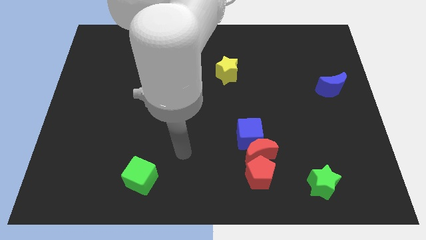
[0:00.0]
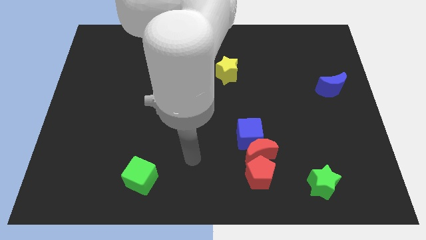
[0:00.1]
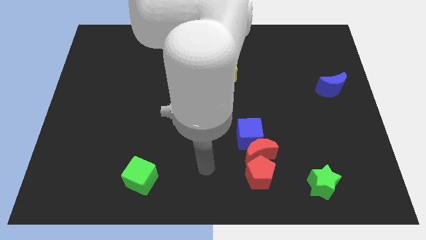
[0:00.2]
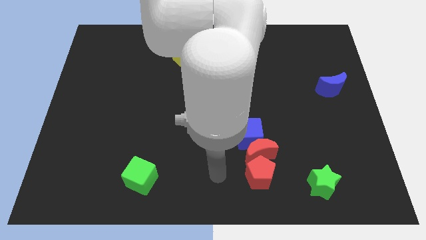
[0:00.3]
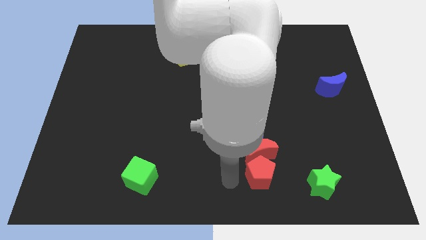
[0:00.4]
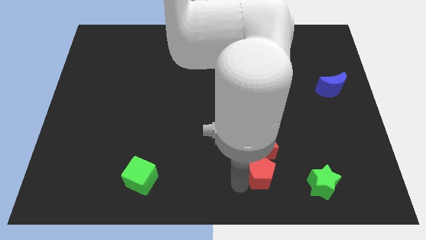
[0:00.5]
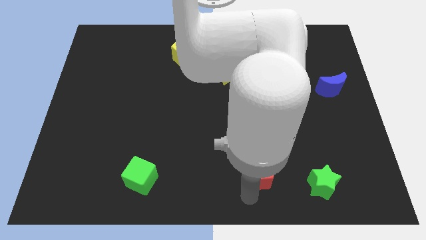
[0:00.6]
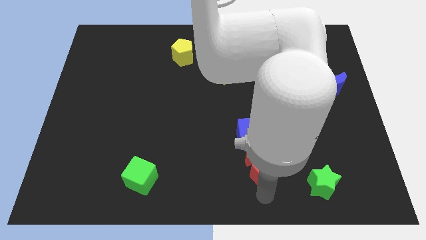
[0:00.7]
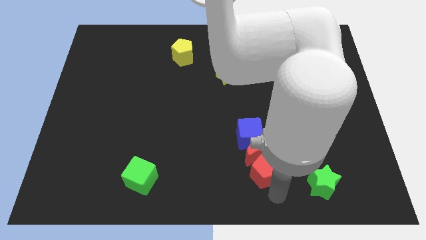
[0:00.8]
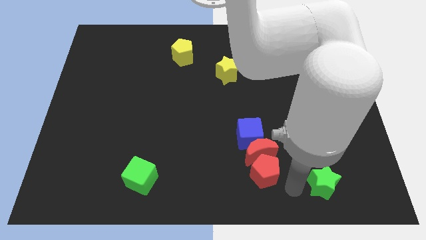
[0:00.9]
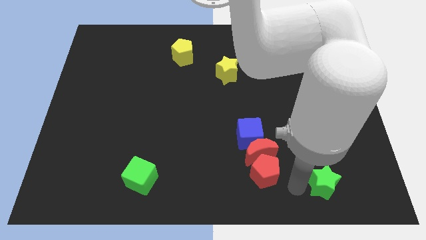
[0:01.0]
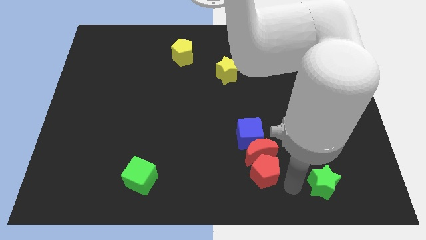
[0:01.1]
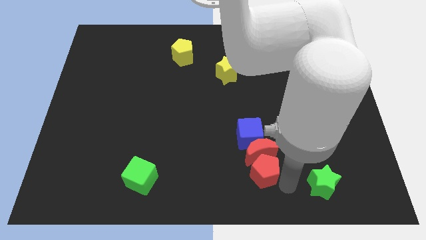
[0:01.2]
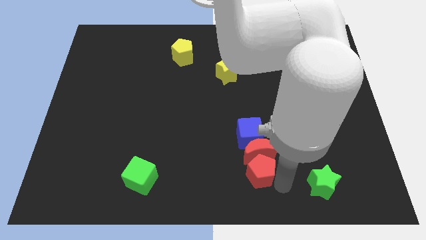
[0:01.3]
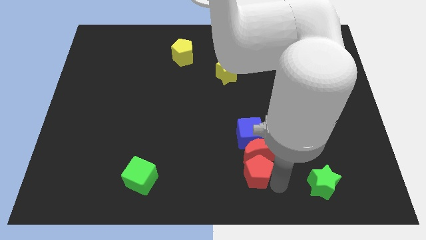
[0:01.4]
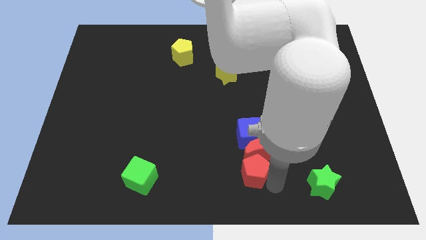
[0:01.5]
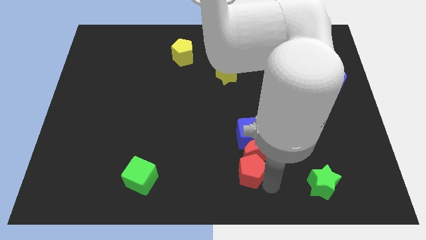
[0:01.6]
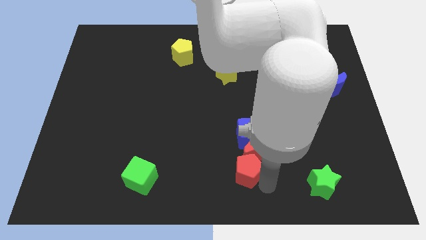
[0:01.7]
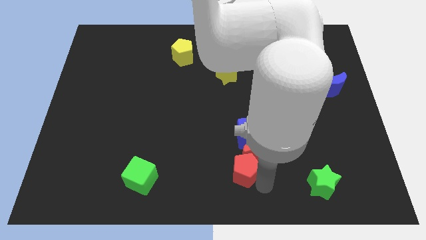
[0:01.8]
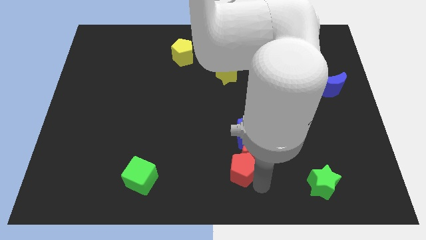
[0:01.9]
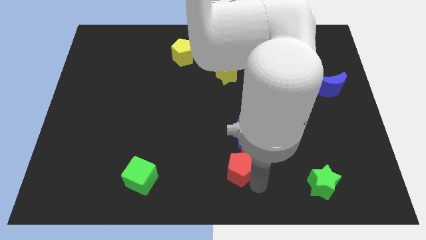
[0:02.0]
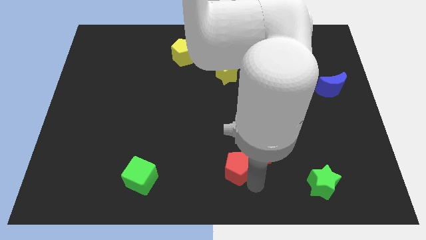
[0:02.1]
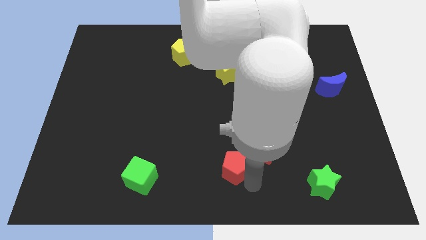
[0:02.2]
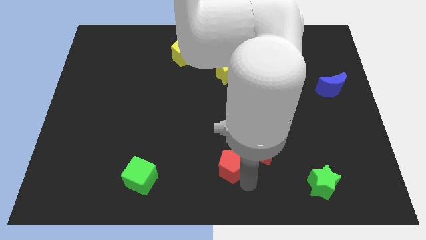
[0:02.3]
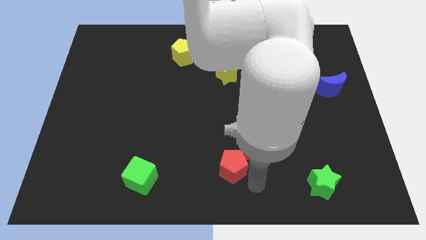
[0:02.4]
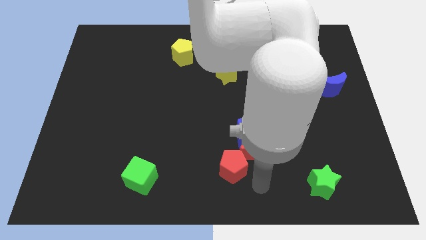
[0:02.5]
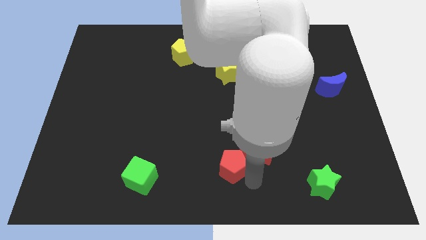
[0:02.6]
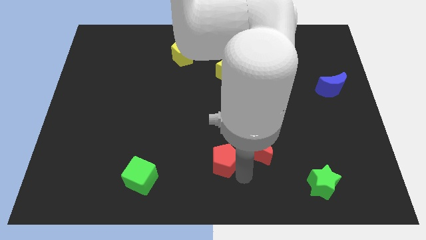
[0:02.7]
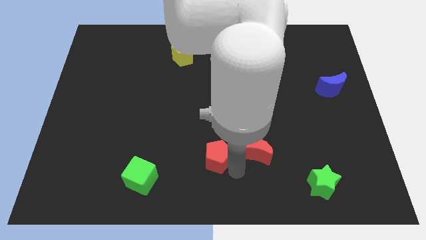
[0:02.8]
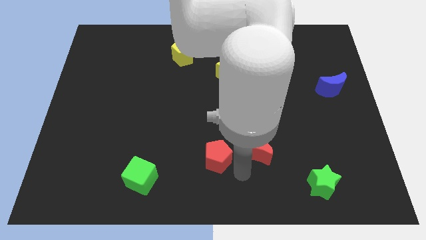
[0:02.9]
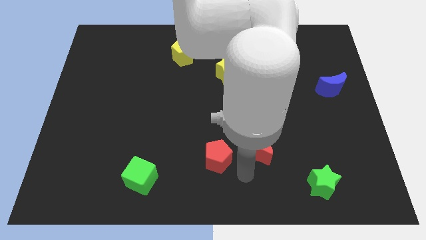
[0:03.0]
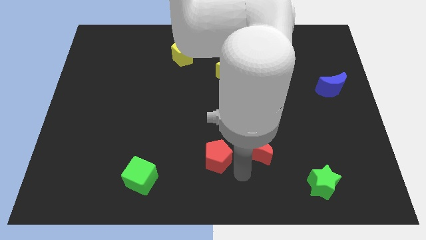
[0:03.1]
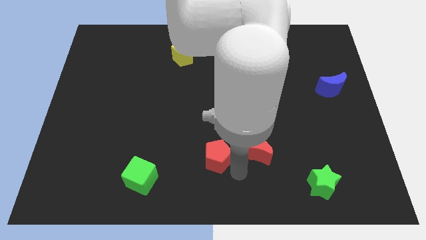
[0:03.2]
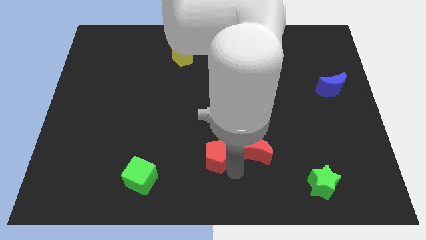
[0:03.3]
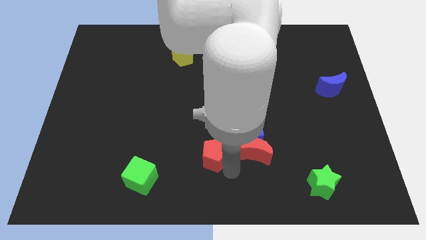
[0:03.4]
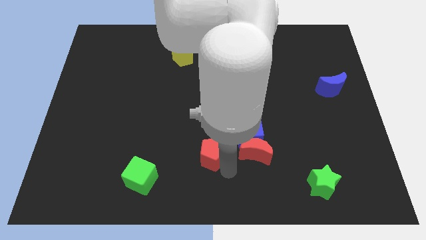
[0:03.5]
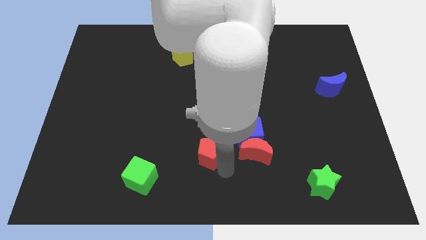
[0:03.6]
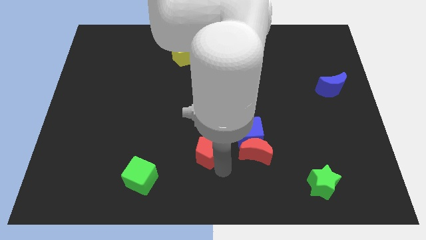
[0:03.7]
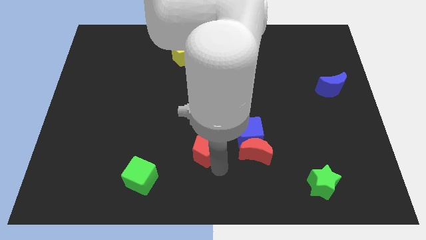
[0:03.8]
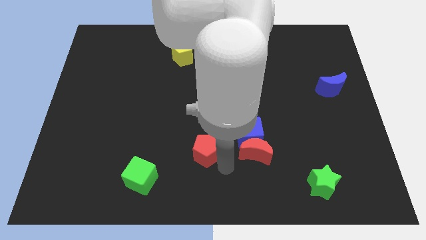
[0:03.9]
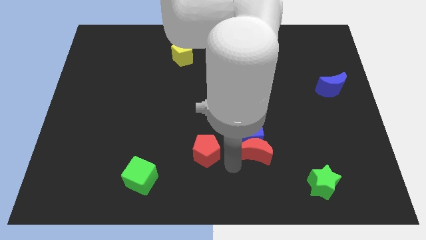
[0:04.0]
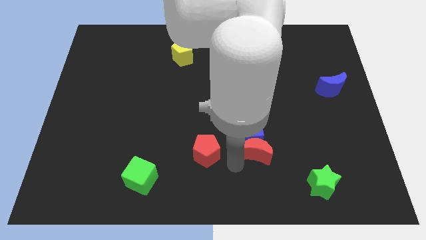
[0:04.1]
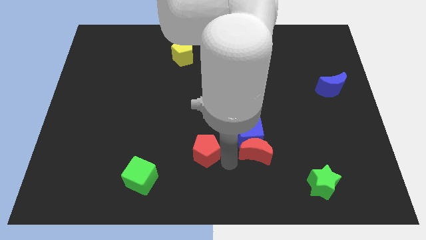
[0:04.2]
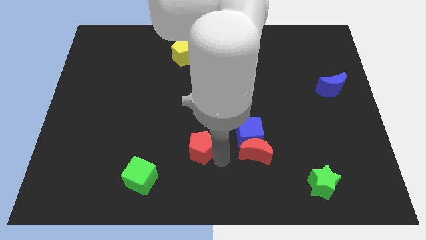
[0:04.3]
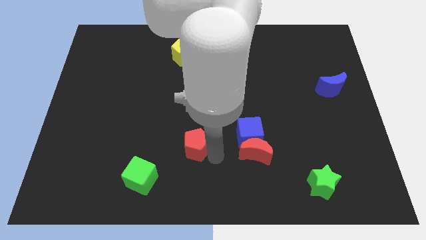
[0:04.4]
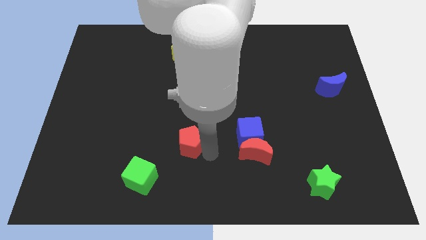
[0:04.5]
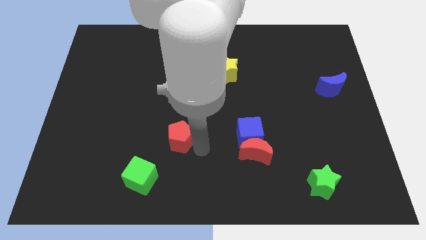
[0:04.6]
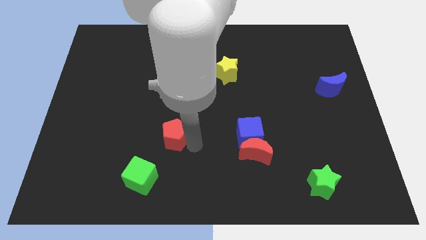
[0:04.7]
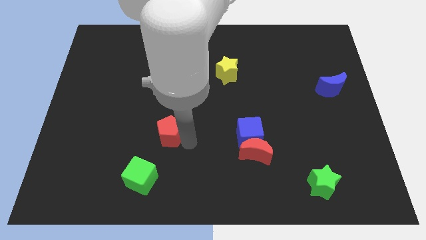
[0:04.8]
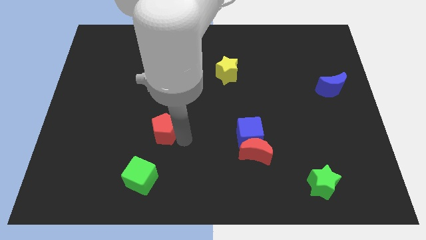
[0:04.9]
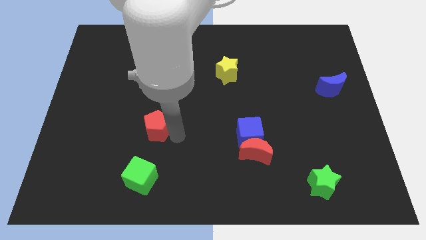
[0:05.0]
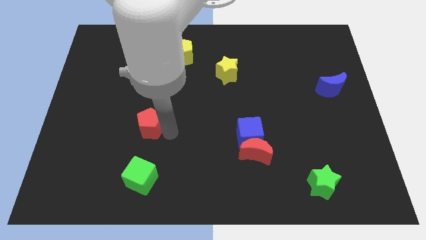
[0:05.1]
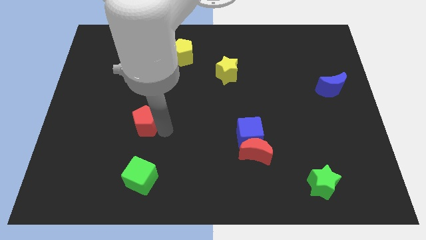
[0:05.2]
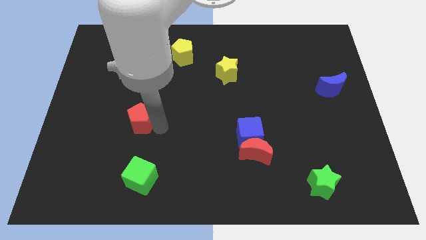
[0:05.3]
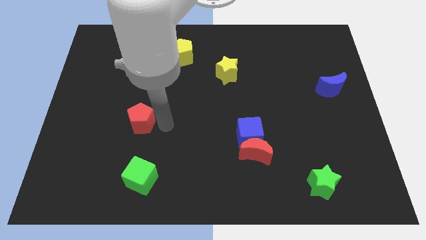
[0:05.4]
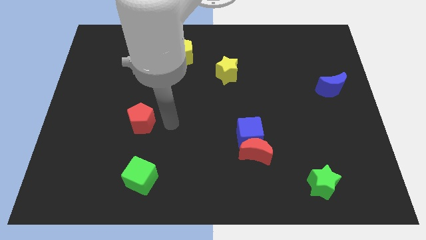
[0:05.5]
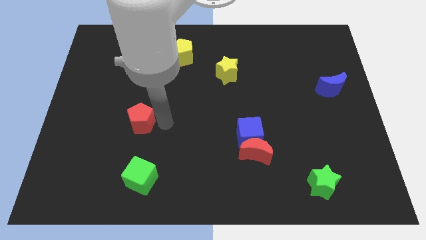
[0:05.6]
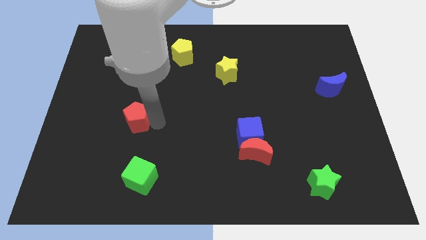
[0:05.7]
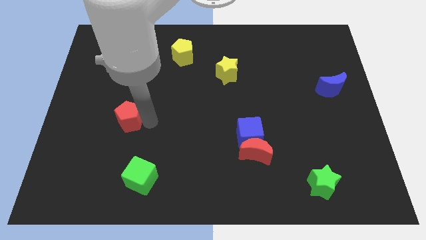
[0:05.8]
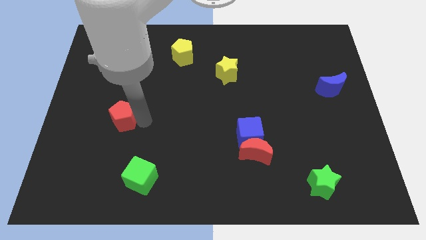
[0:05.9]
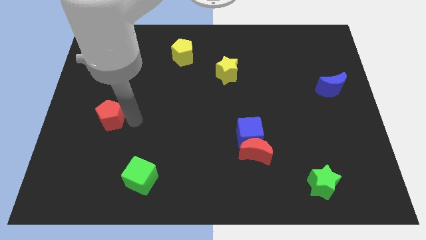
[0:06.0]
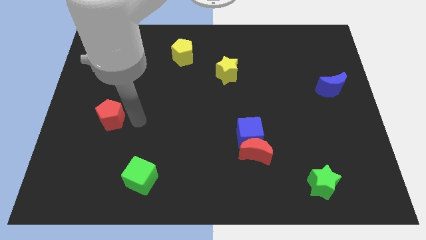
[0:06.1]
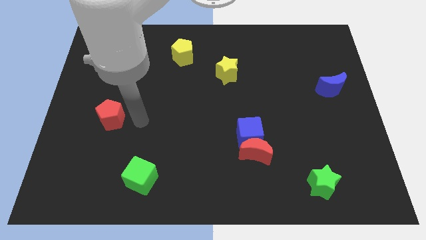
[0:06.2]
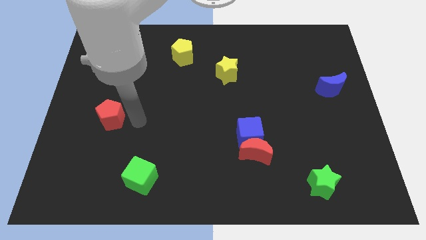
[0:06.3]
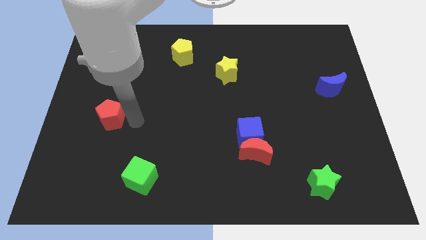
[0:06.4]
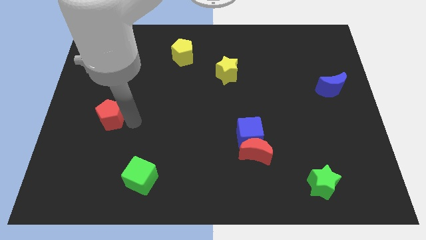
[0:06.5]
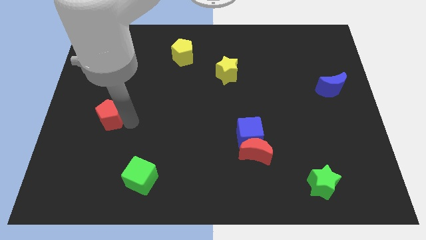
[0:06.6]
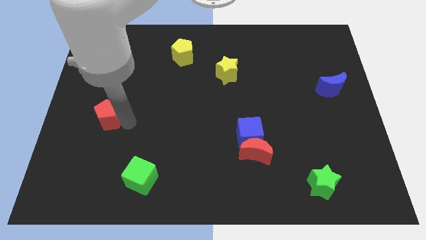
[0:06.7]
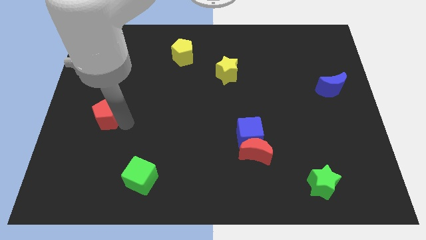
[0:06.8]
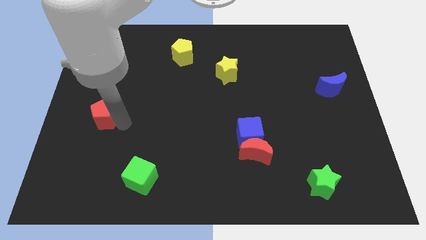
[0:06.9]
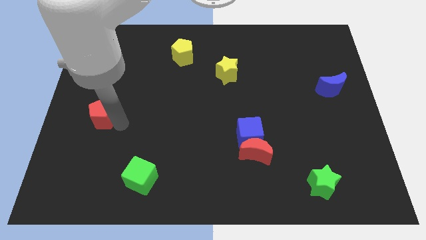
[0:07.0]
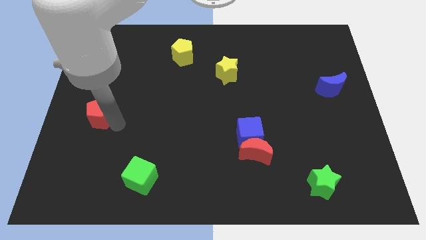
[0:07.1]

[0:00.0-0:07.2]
move the red pentagon to the left side
